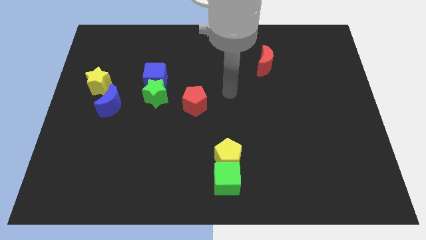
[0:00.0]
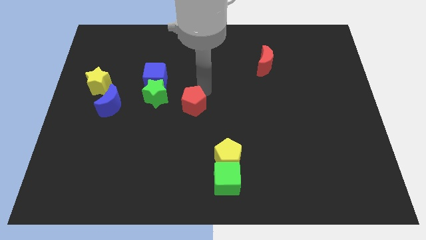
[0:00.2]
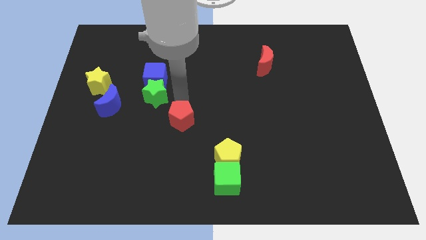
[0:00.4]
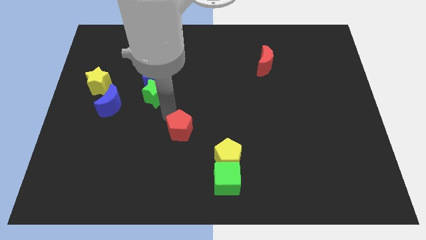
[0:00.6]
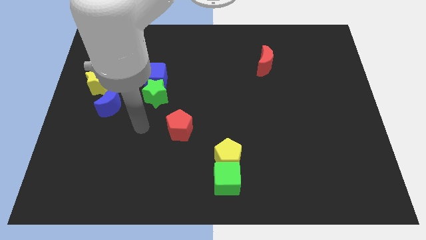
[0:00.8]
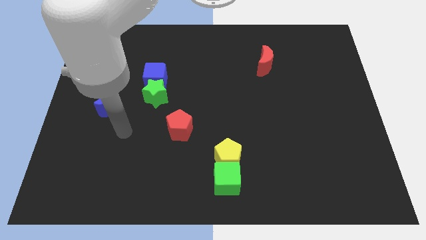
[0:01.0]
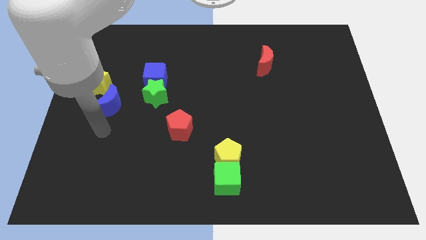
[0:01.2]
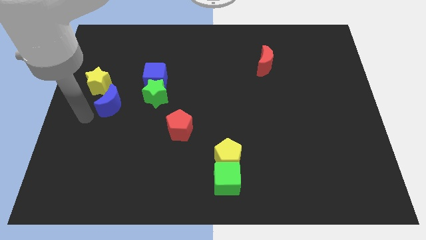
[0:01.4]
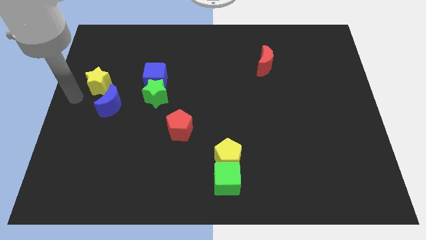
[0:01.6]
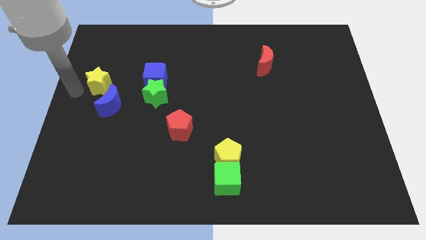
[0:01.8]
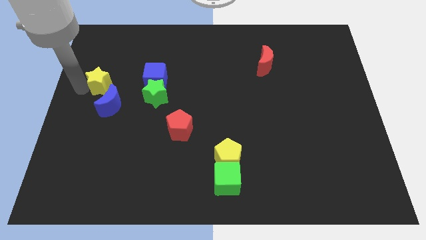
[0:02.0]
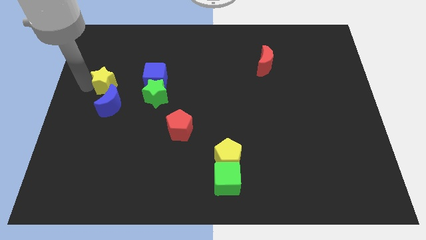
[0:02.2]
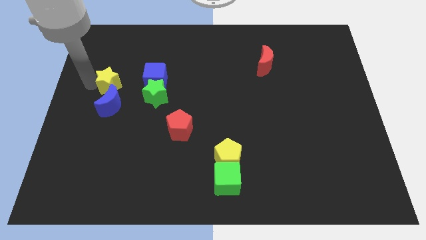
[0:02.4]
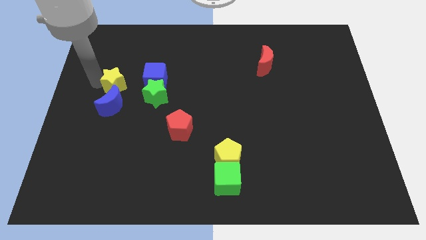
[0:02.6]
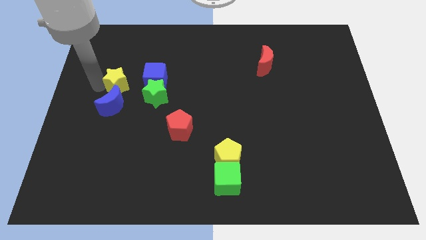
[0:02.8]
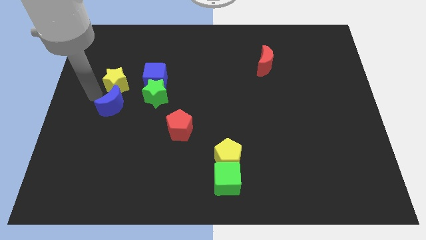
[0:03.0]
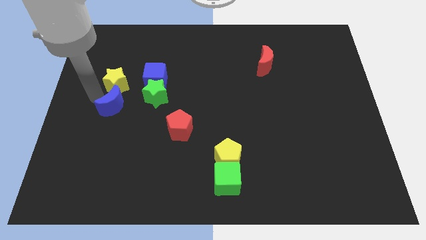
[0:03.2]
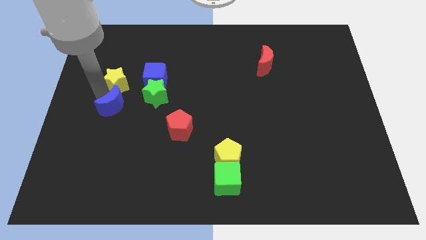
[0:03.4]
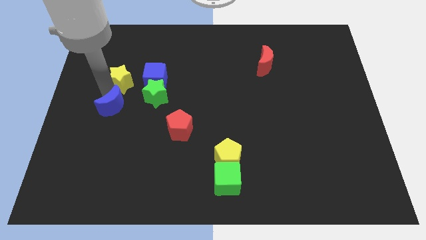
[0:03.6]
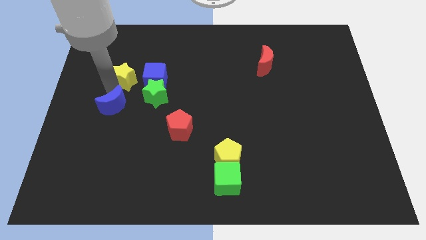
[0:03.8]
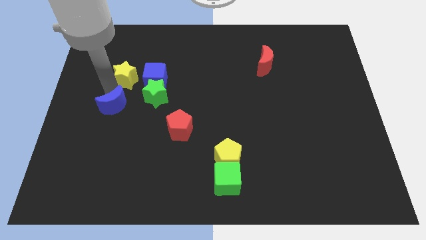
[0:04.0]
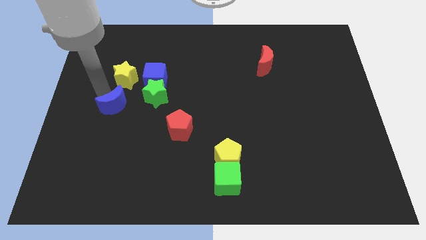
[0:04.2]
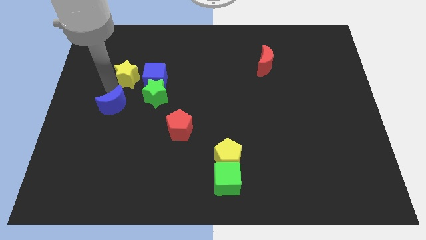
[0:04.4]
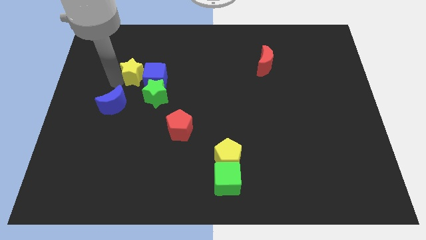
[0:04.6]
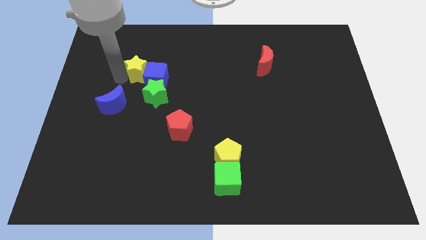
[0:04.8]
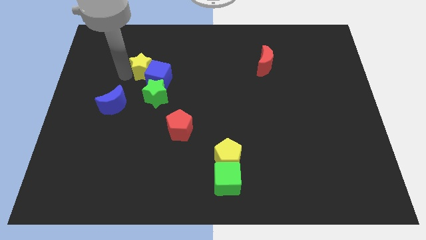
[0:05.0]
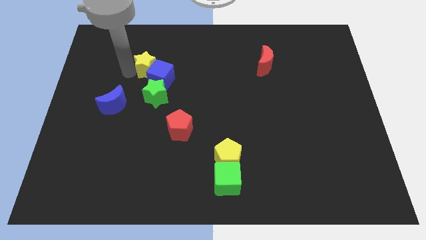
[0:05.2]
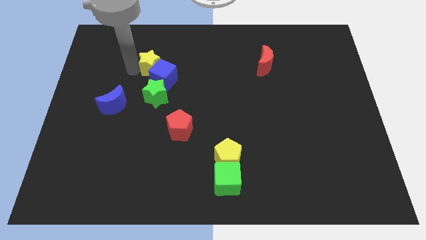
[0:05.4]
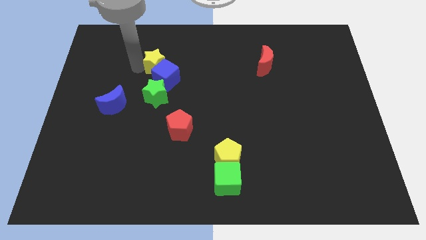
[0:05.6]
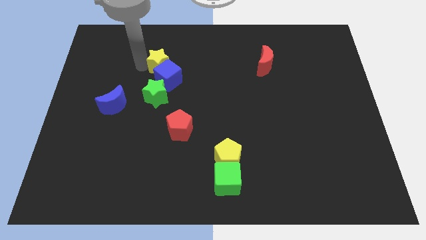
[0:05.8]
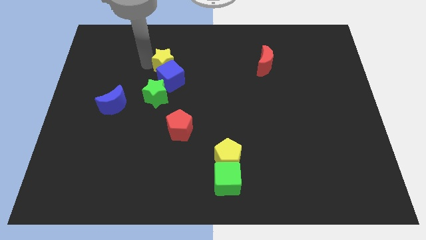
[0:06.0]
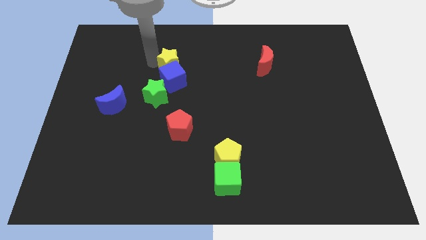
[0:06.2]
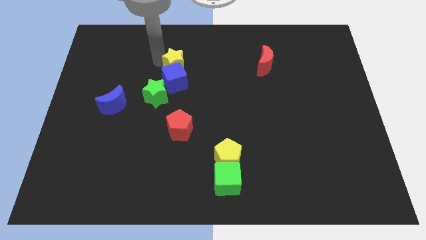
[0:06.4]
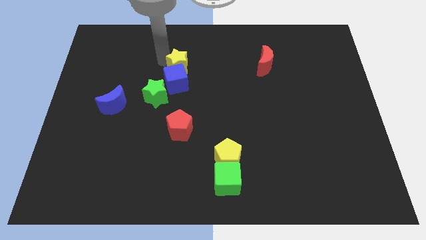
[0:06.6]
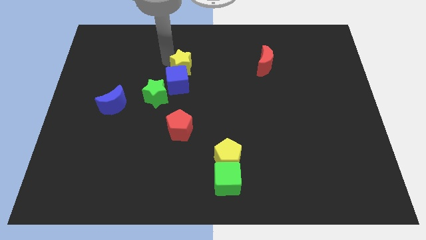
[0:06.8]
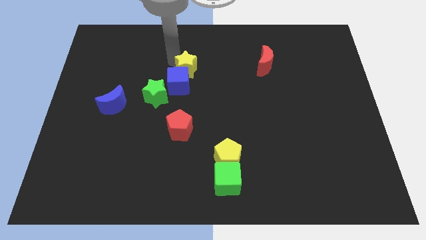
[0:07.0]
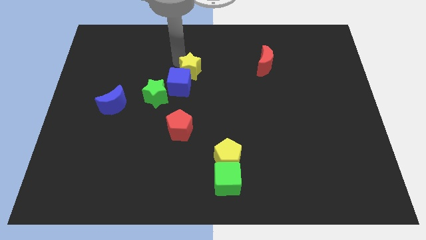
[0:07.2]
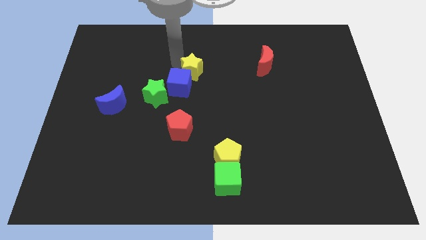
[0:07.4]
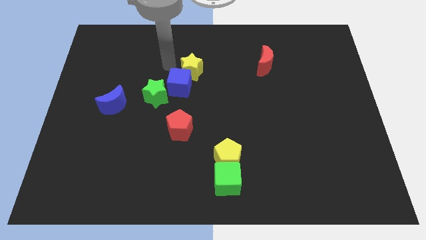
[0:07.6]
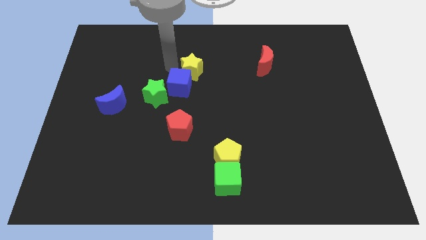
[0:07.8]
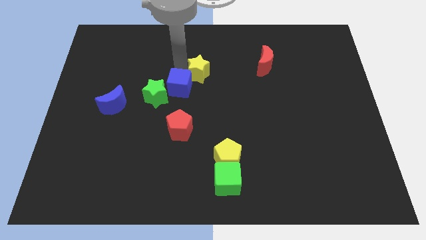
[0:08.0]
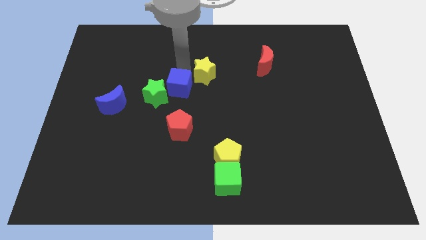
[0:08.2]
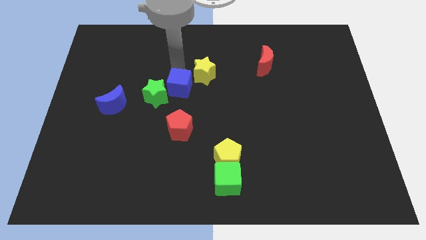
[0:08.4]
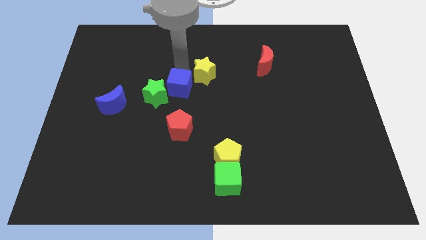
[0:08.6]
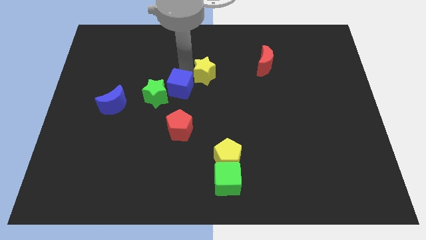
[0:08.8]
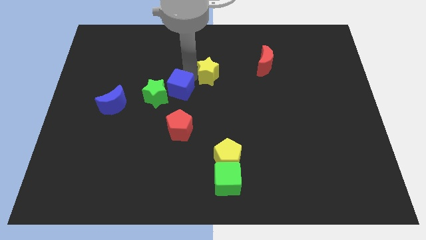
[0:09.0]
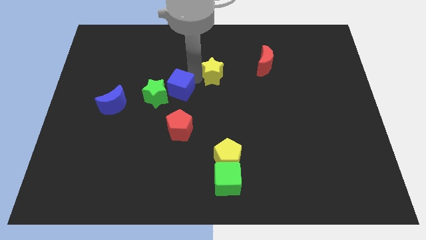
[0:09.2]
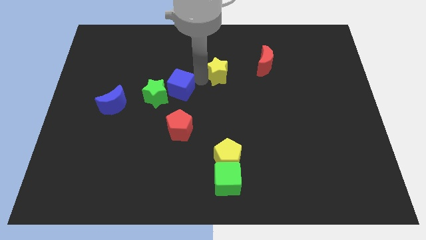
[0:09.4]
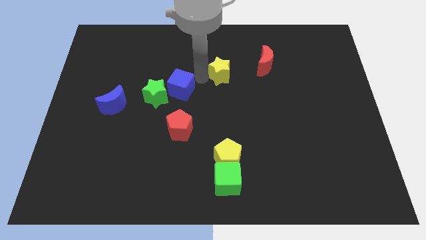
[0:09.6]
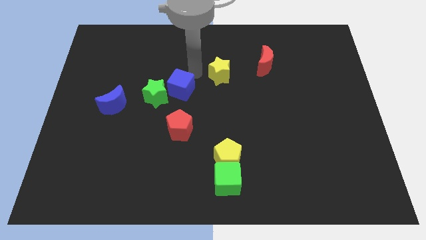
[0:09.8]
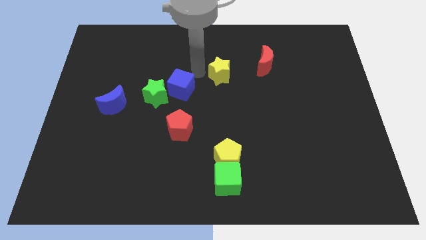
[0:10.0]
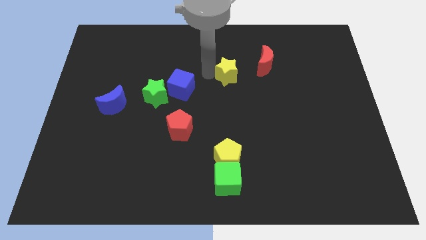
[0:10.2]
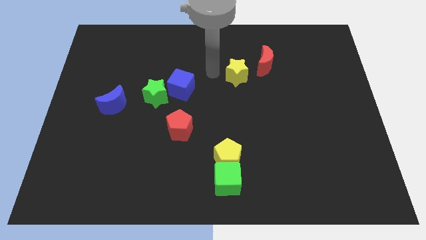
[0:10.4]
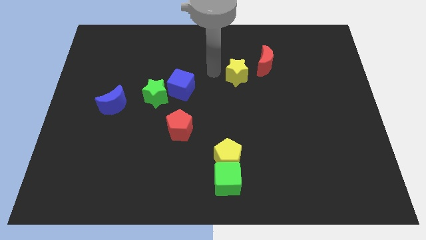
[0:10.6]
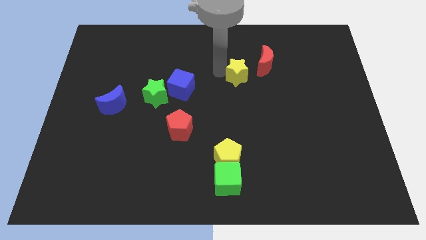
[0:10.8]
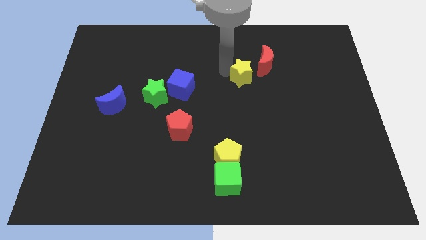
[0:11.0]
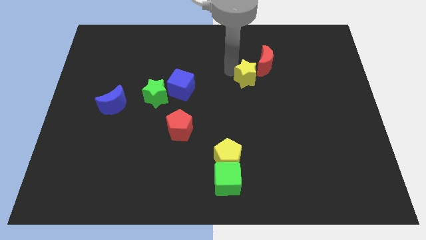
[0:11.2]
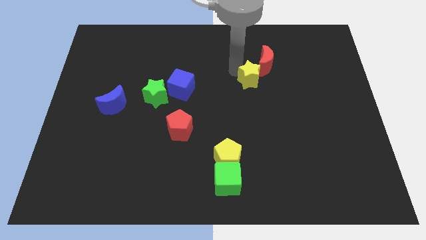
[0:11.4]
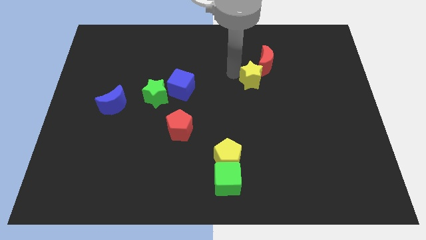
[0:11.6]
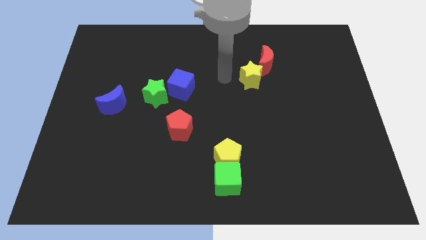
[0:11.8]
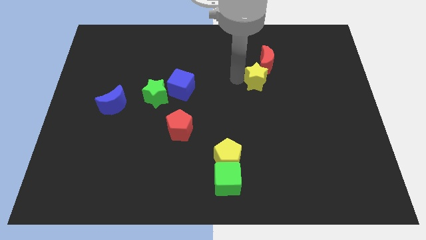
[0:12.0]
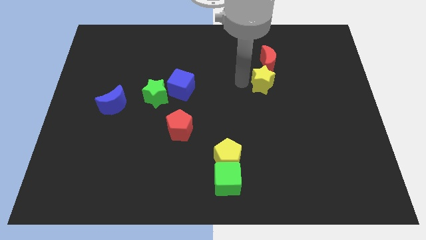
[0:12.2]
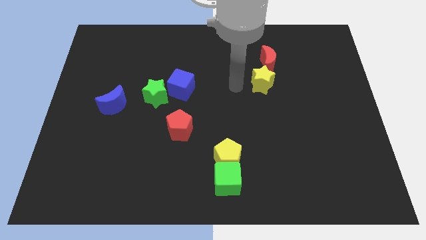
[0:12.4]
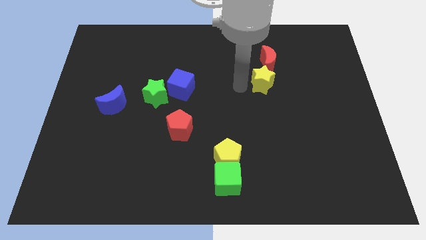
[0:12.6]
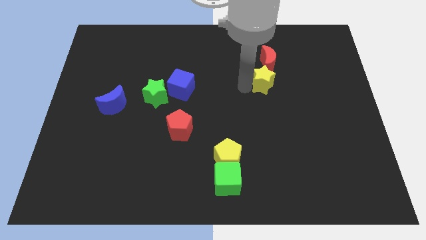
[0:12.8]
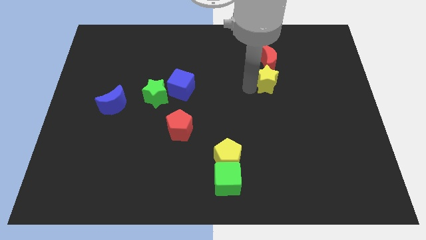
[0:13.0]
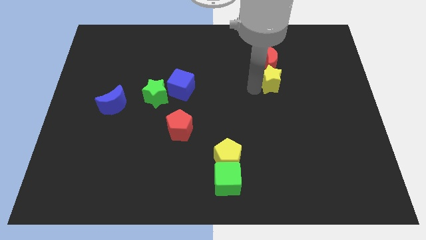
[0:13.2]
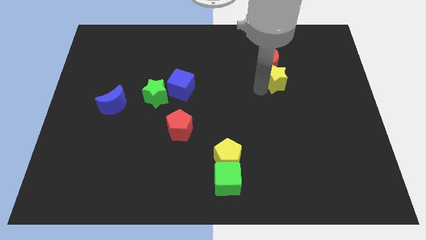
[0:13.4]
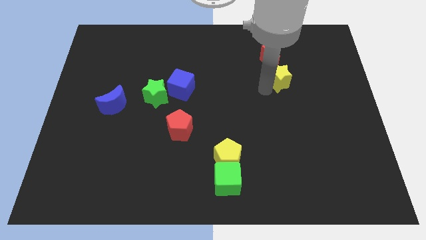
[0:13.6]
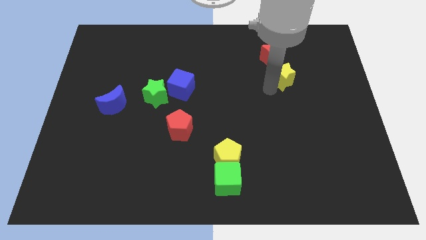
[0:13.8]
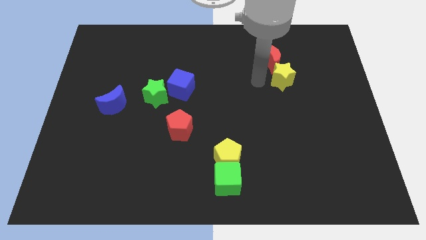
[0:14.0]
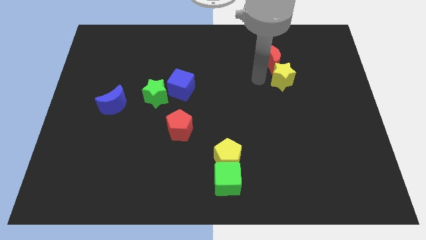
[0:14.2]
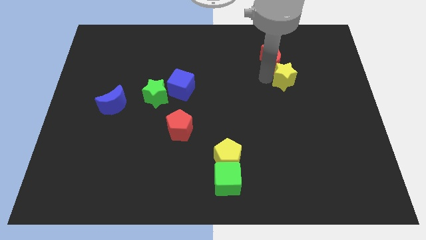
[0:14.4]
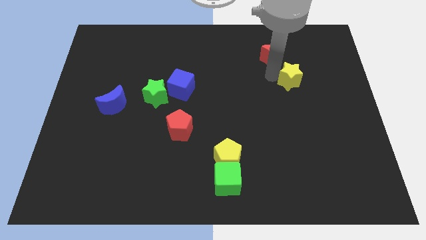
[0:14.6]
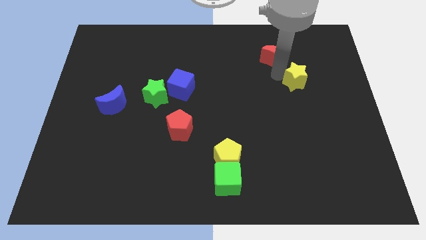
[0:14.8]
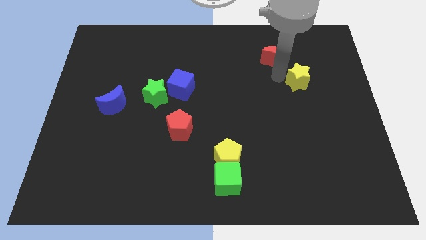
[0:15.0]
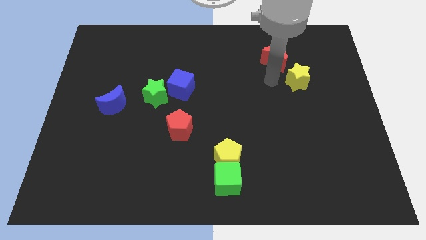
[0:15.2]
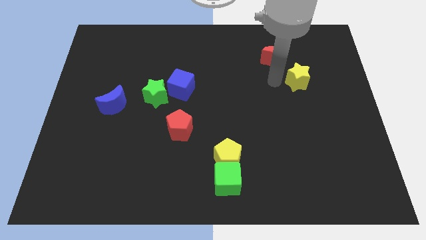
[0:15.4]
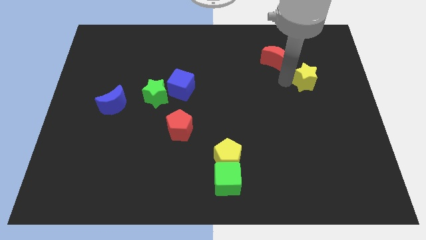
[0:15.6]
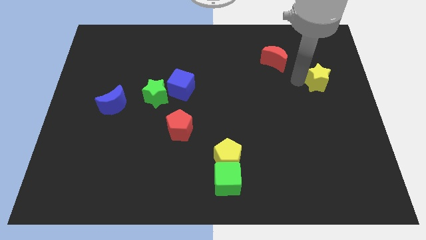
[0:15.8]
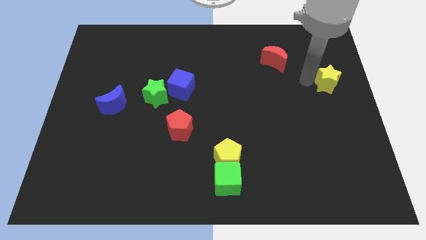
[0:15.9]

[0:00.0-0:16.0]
push the yellow star to the right side of the board
